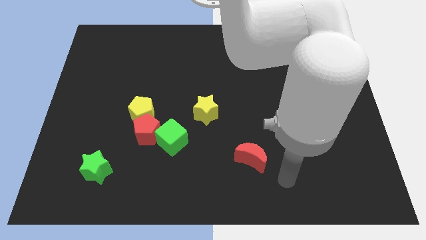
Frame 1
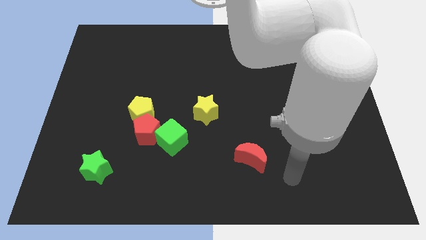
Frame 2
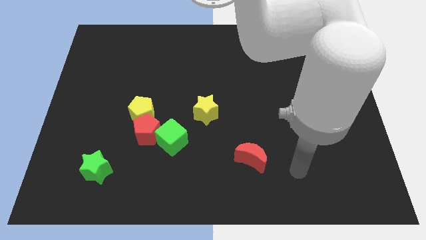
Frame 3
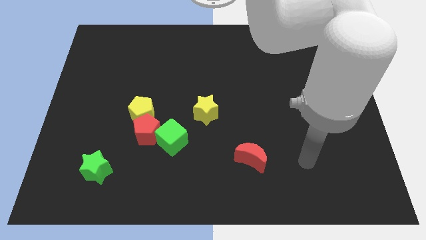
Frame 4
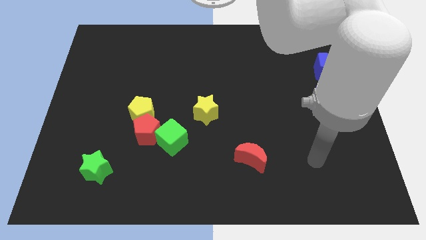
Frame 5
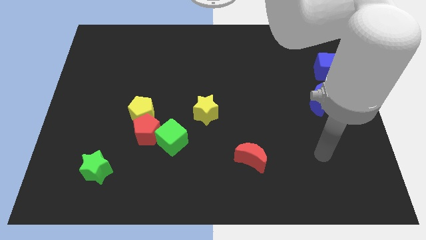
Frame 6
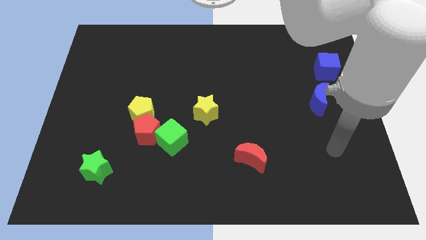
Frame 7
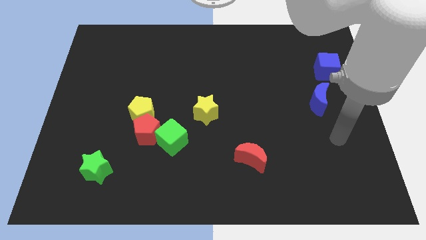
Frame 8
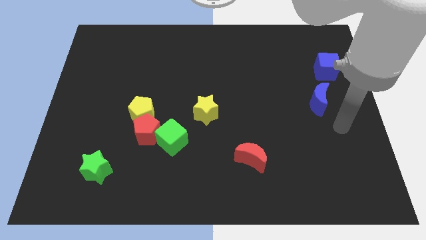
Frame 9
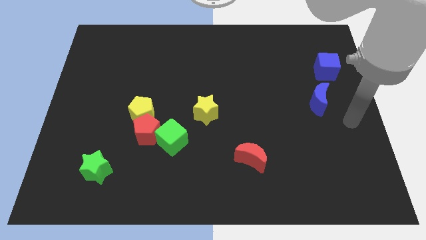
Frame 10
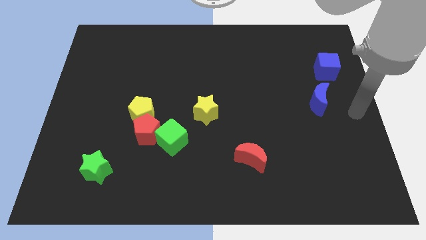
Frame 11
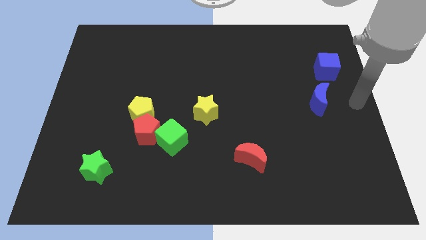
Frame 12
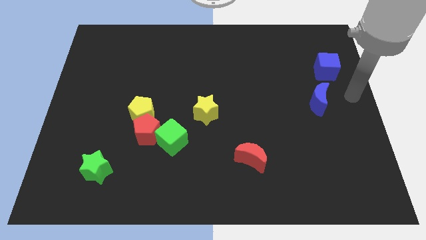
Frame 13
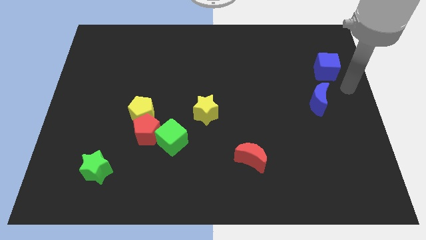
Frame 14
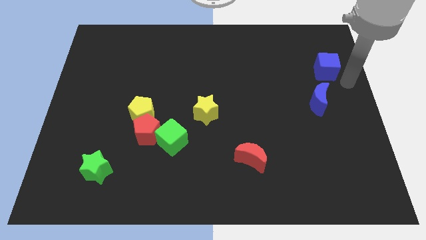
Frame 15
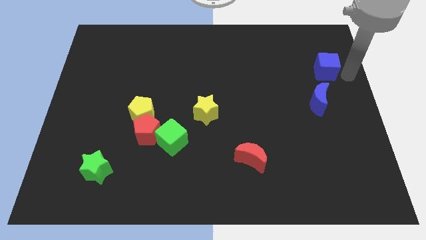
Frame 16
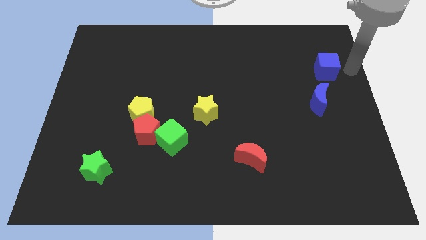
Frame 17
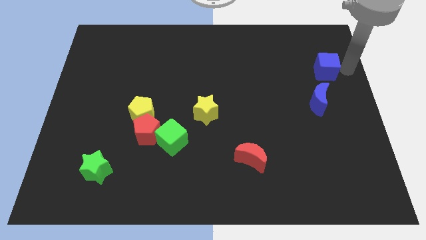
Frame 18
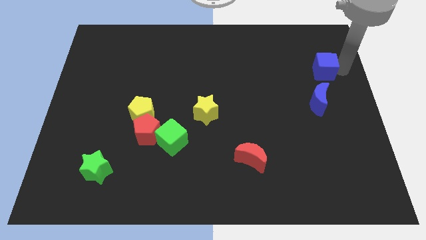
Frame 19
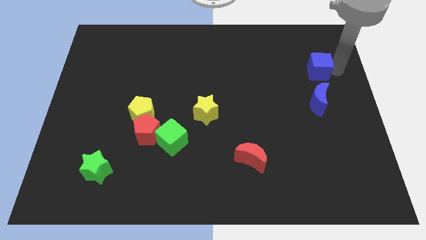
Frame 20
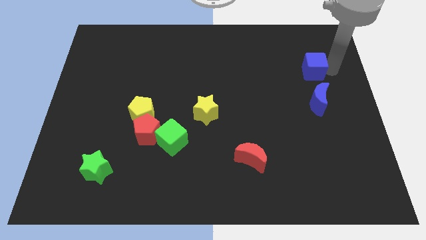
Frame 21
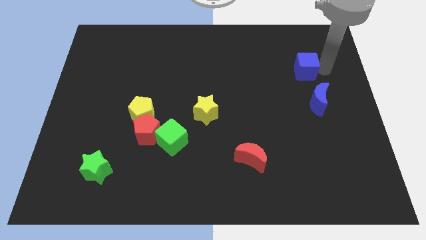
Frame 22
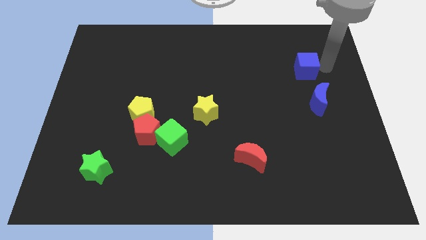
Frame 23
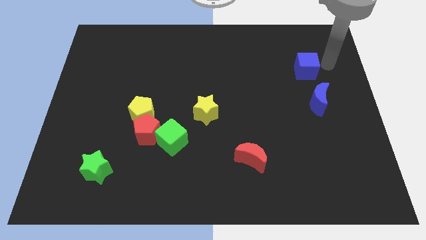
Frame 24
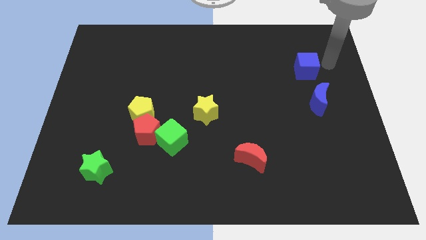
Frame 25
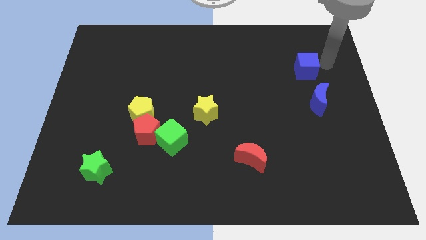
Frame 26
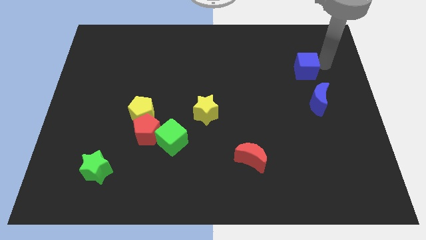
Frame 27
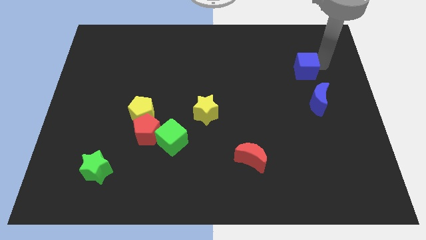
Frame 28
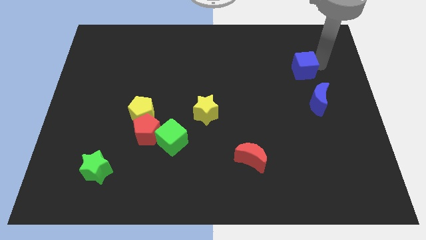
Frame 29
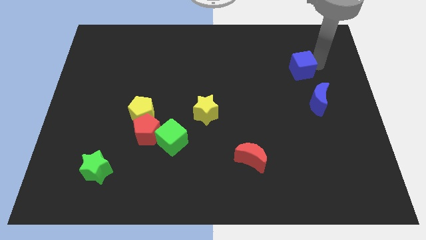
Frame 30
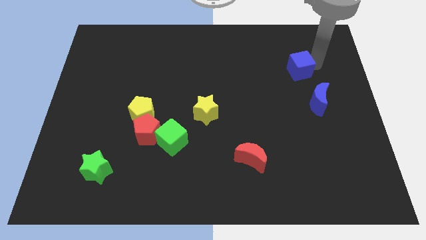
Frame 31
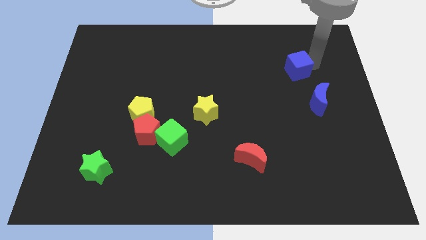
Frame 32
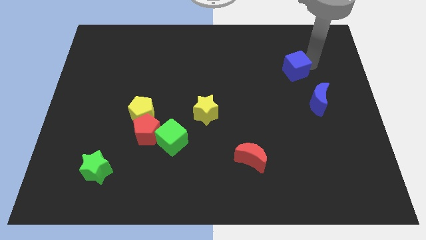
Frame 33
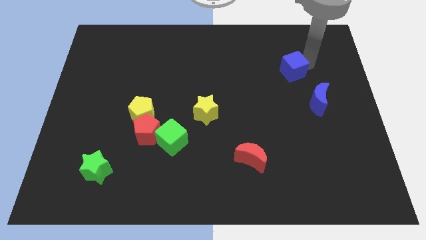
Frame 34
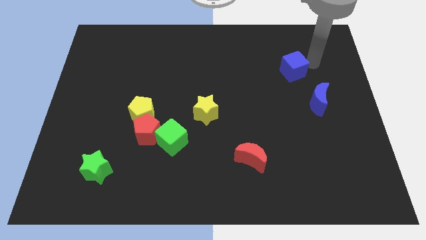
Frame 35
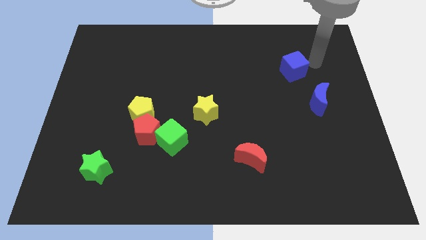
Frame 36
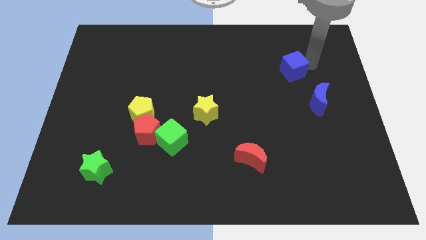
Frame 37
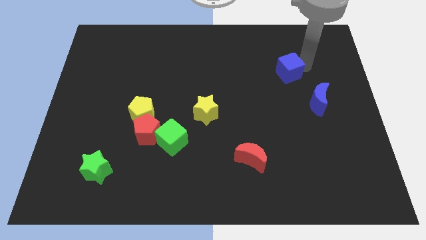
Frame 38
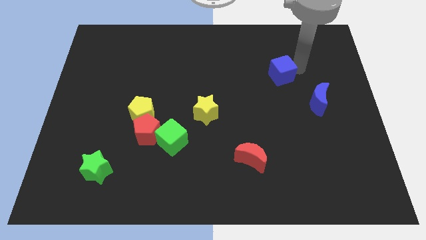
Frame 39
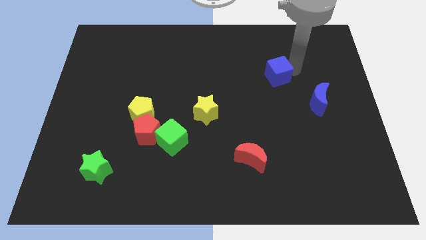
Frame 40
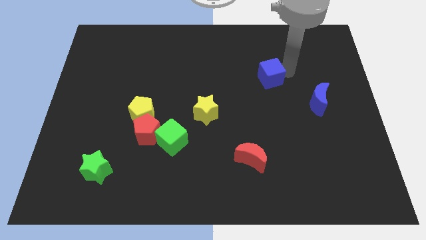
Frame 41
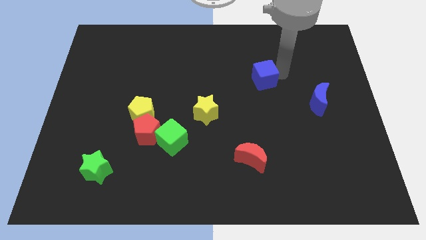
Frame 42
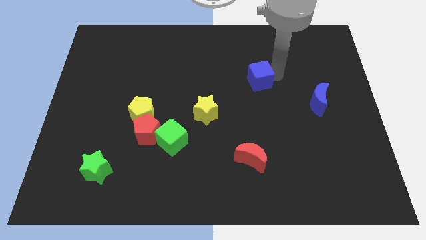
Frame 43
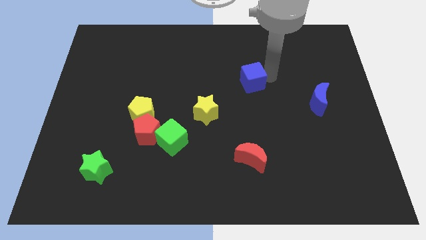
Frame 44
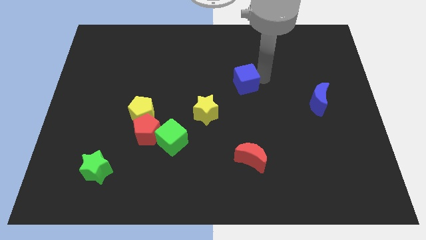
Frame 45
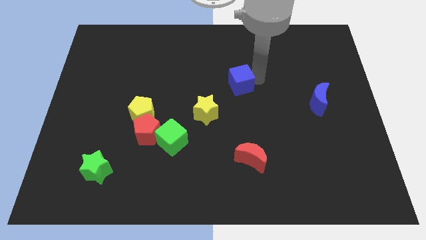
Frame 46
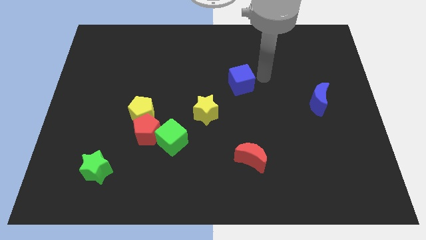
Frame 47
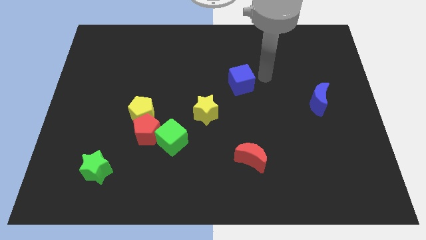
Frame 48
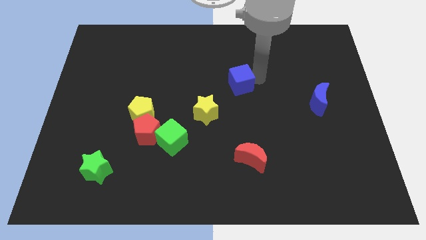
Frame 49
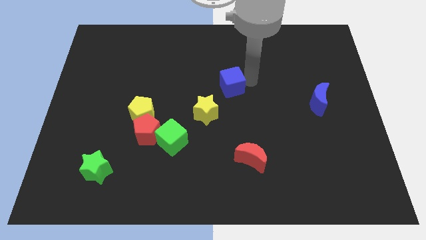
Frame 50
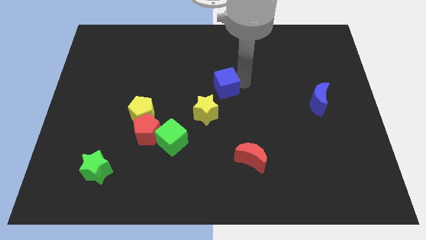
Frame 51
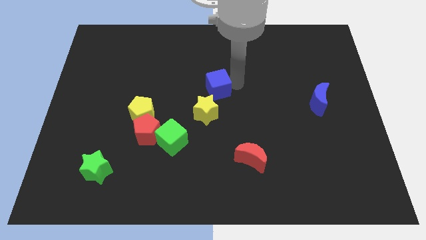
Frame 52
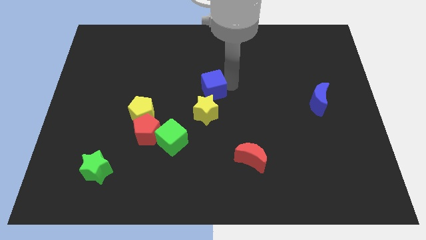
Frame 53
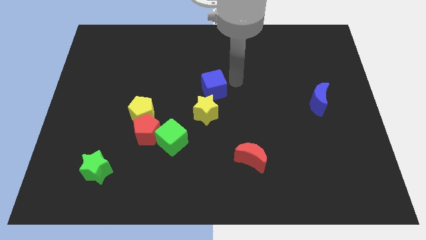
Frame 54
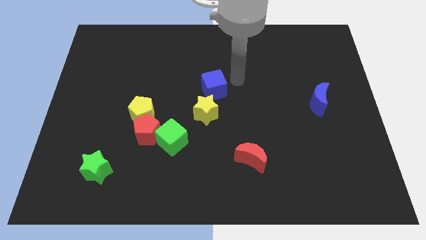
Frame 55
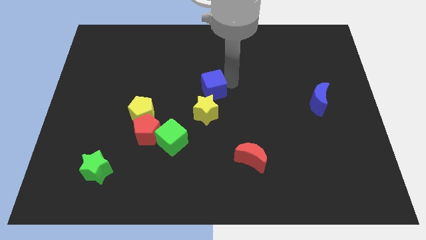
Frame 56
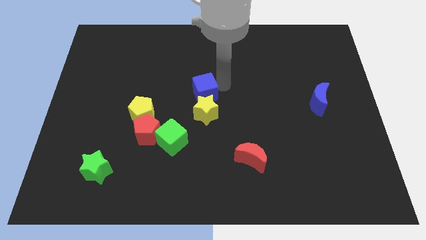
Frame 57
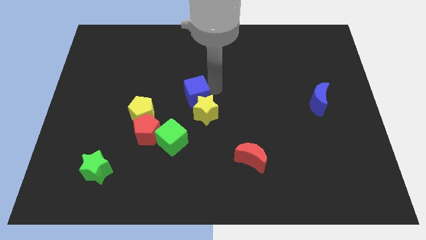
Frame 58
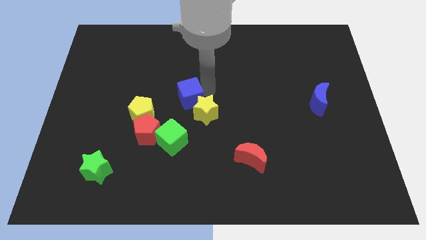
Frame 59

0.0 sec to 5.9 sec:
slide the blue cube above the green cube

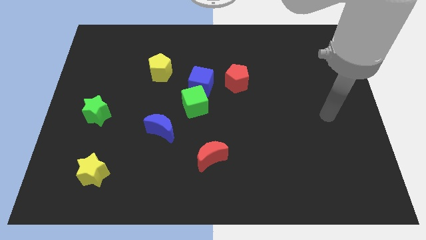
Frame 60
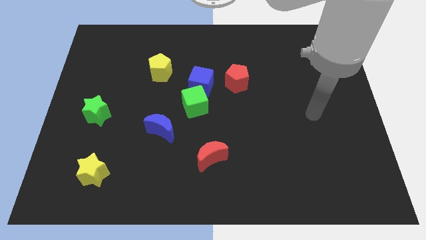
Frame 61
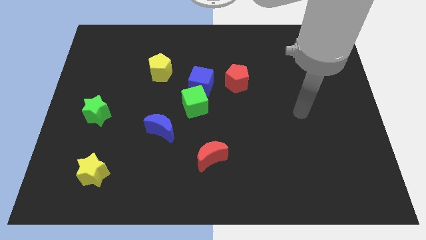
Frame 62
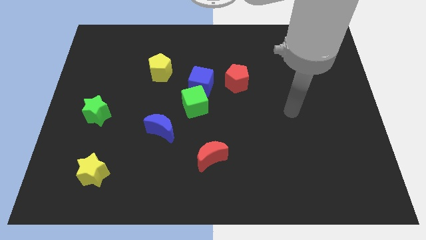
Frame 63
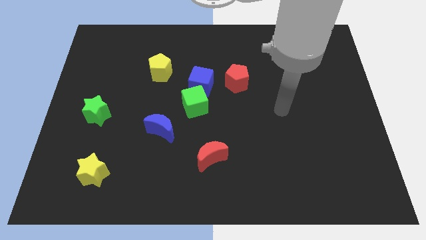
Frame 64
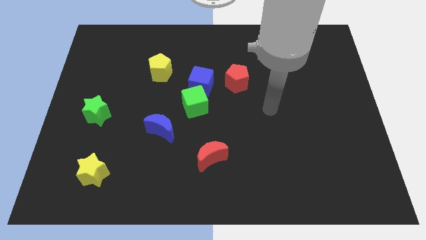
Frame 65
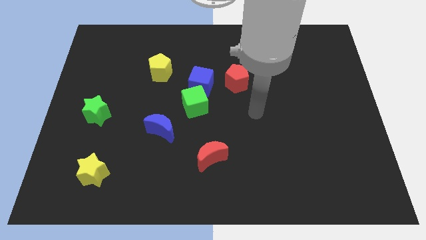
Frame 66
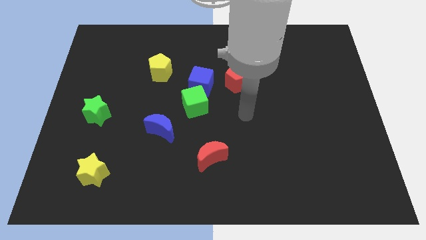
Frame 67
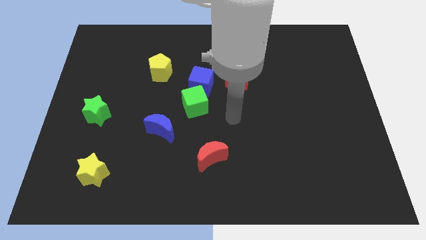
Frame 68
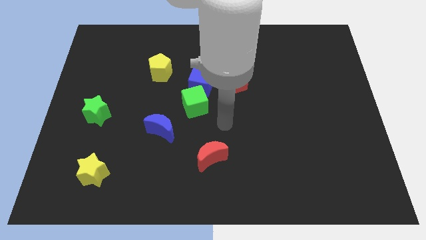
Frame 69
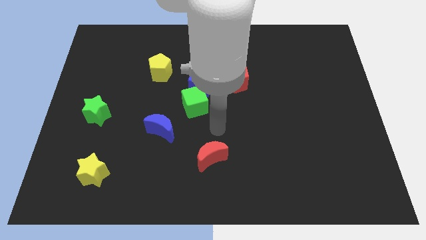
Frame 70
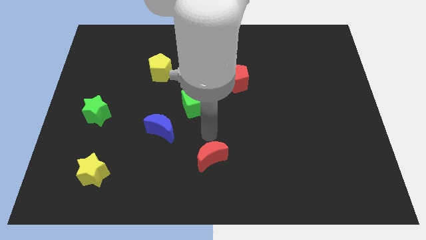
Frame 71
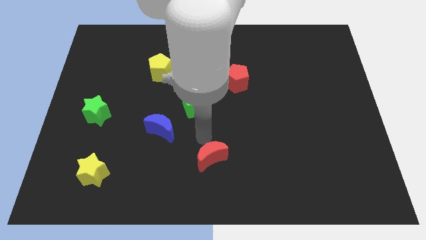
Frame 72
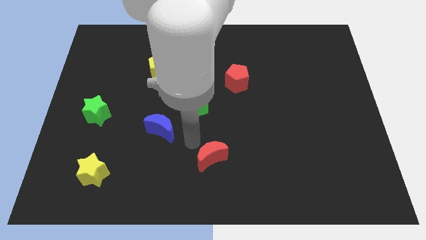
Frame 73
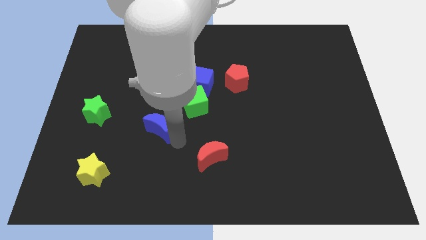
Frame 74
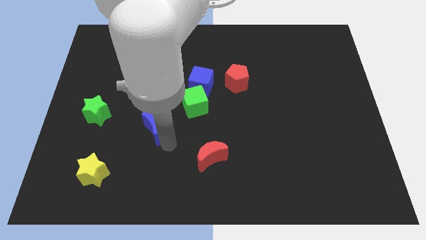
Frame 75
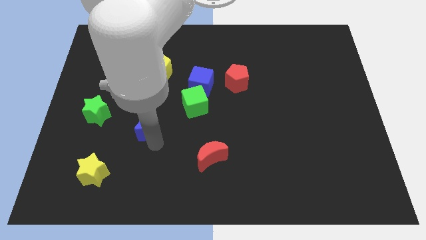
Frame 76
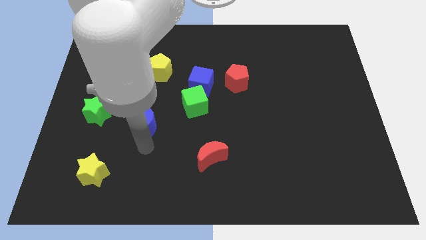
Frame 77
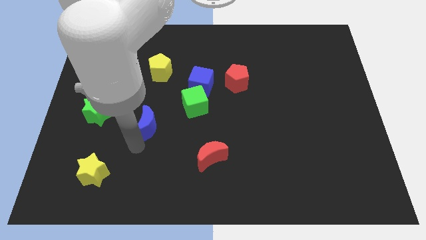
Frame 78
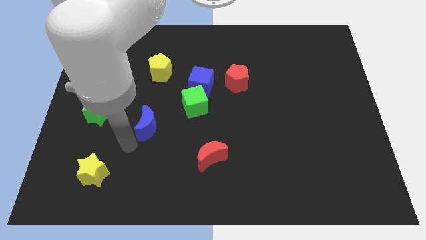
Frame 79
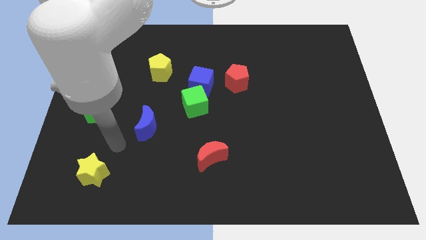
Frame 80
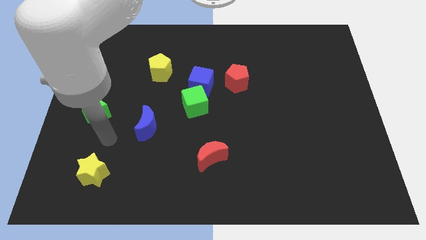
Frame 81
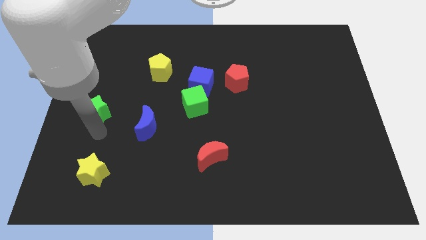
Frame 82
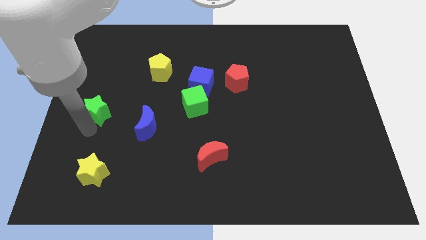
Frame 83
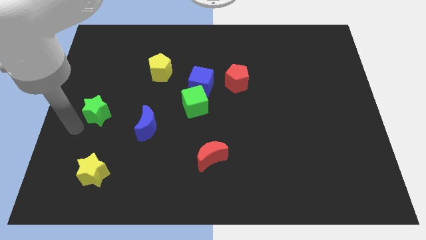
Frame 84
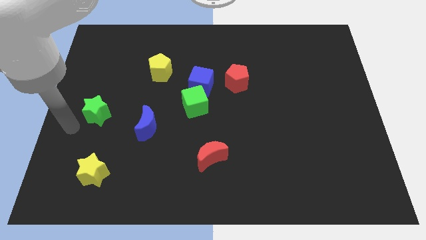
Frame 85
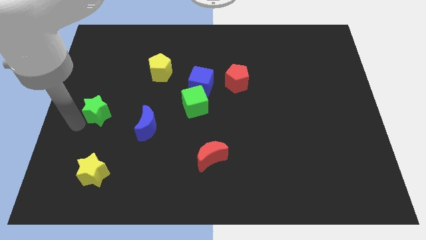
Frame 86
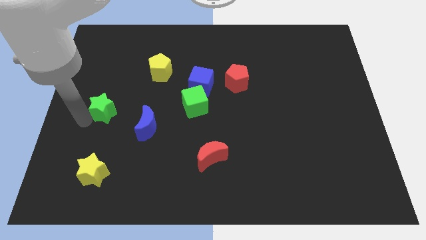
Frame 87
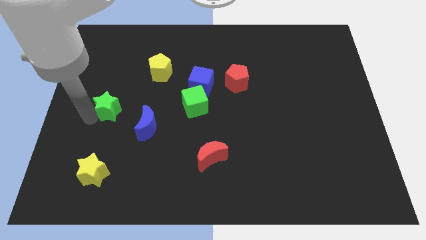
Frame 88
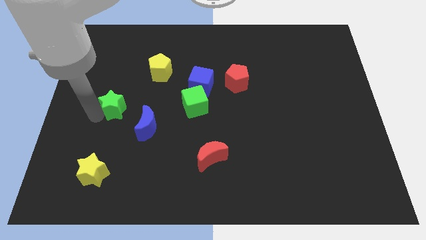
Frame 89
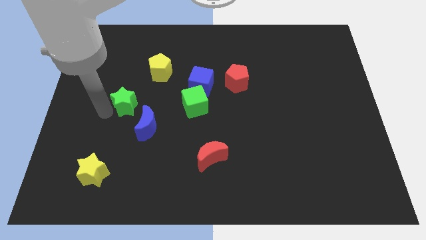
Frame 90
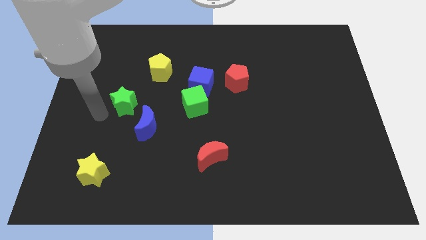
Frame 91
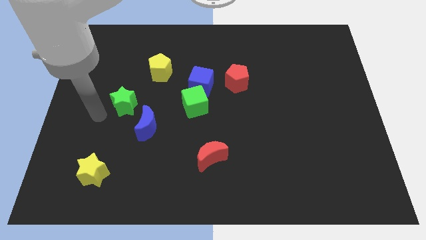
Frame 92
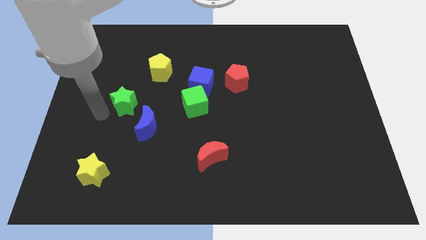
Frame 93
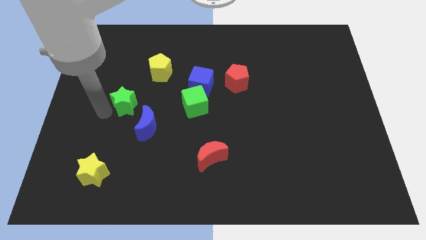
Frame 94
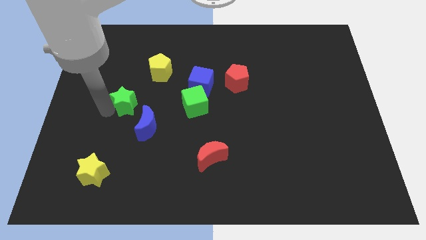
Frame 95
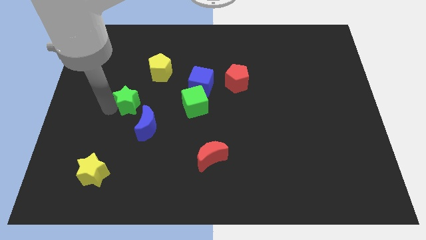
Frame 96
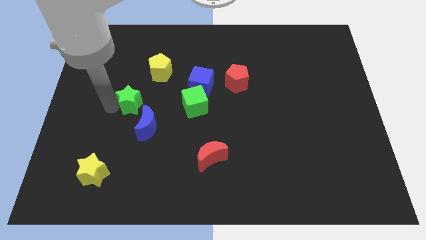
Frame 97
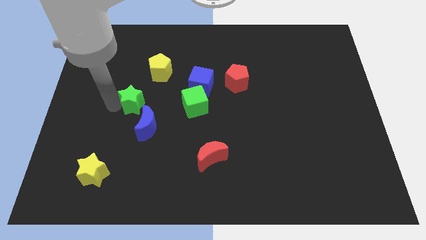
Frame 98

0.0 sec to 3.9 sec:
put the green star to the top of the blue moon
